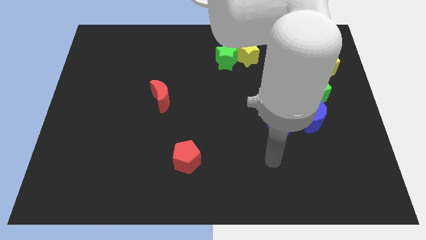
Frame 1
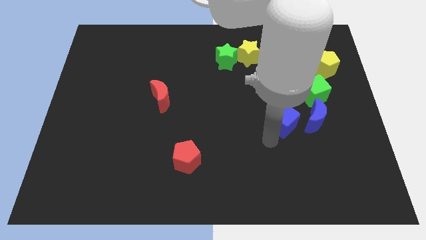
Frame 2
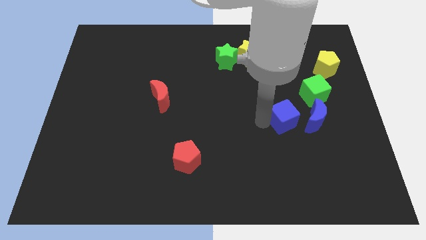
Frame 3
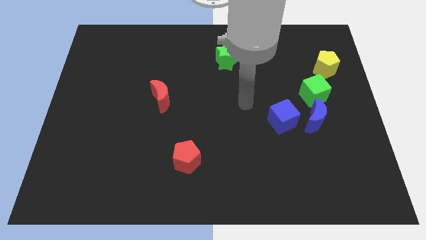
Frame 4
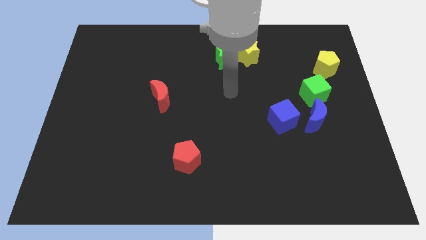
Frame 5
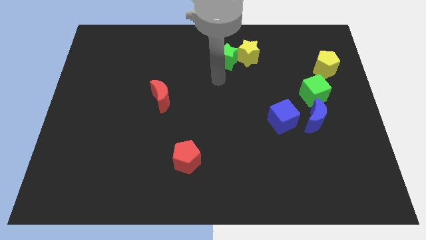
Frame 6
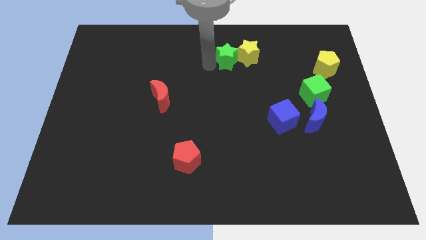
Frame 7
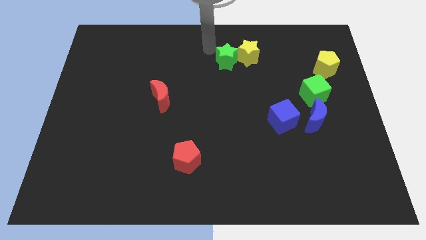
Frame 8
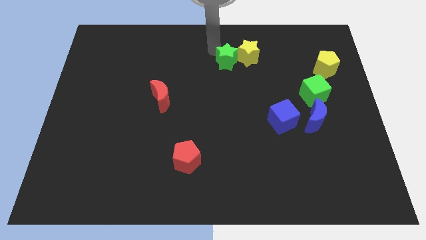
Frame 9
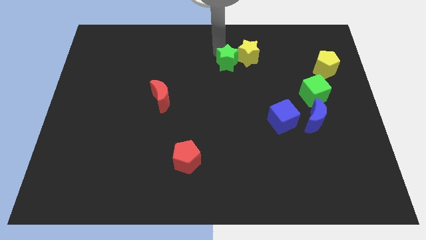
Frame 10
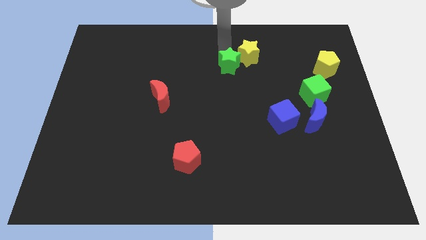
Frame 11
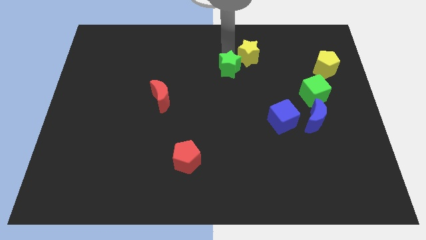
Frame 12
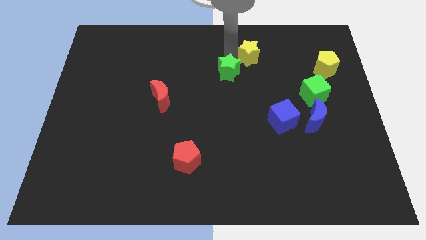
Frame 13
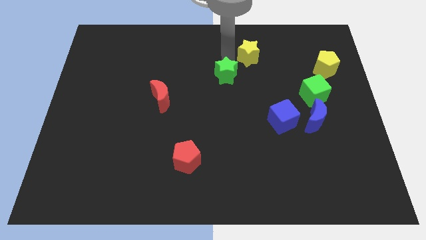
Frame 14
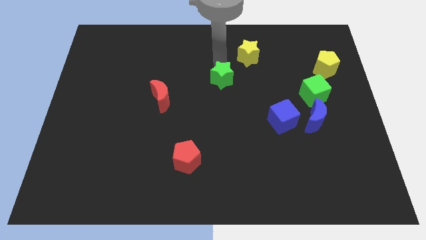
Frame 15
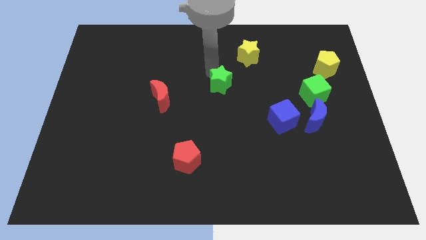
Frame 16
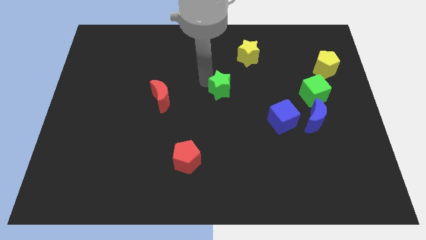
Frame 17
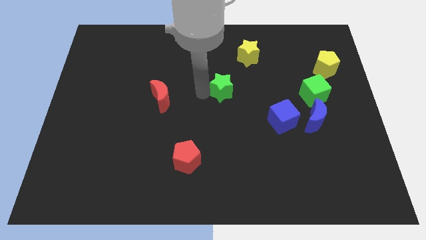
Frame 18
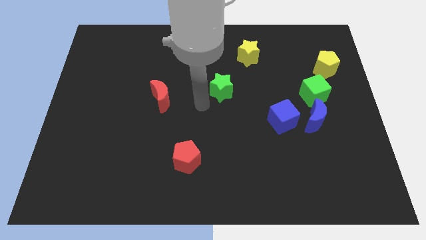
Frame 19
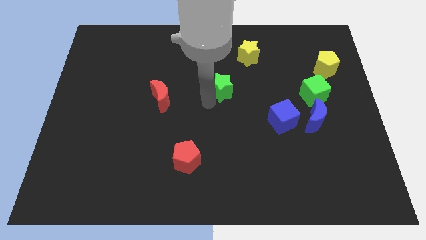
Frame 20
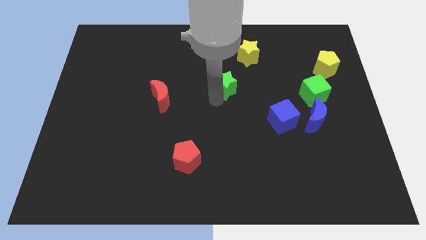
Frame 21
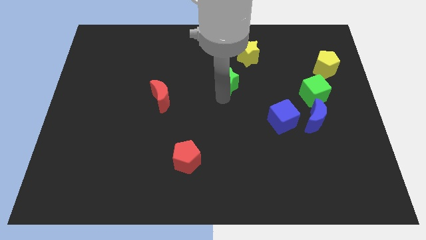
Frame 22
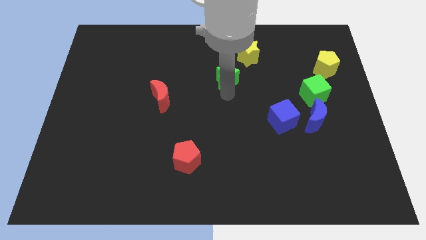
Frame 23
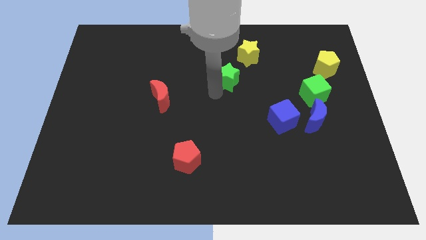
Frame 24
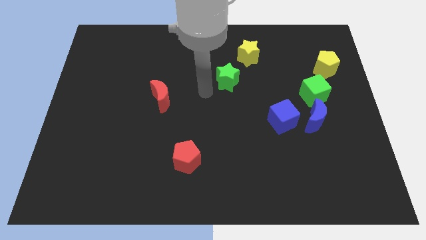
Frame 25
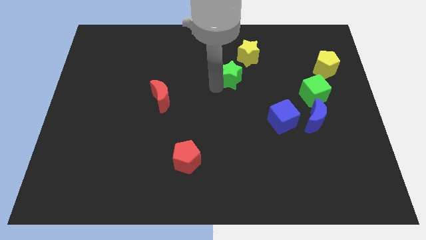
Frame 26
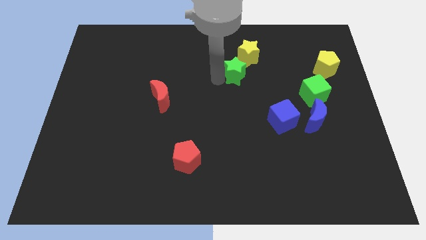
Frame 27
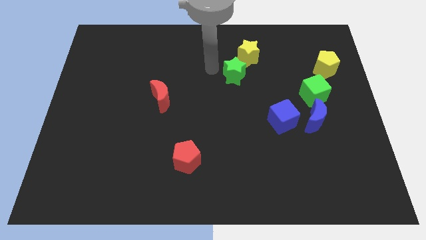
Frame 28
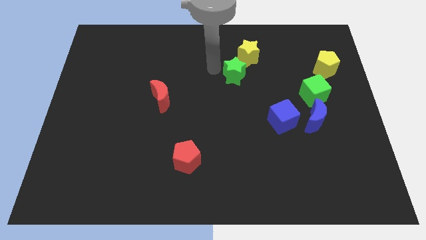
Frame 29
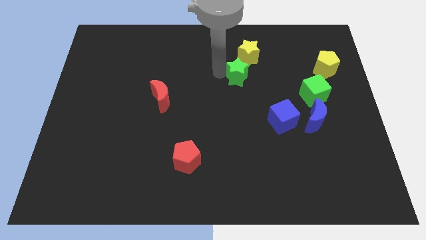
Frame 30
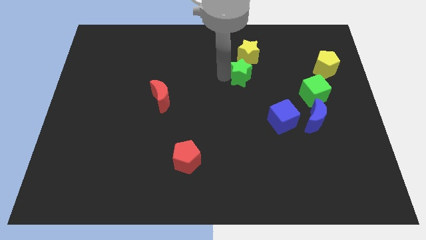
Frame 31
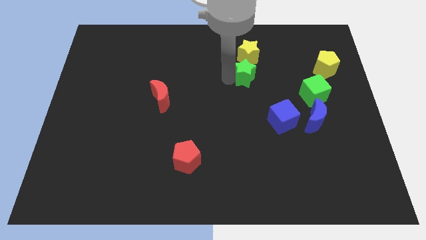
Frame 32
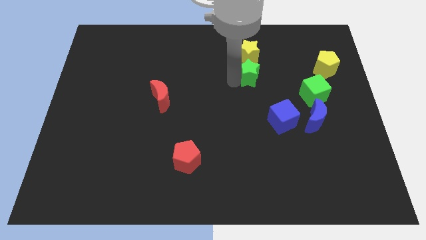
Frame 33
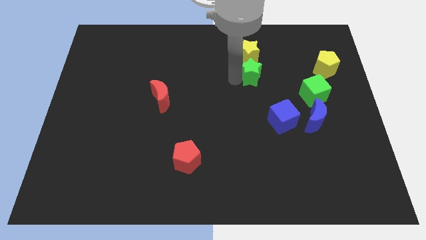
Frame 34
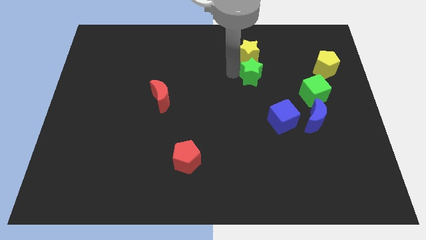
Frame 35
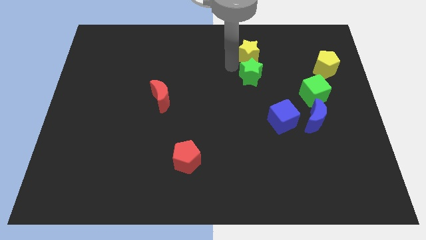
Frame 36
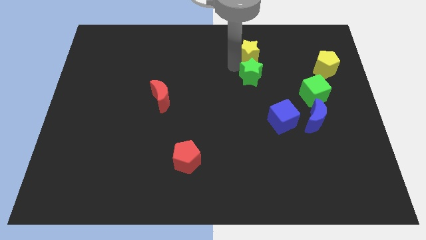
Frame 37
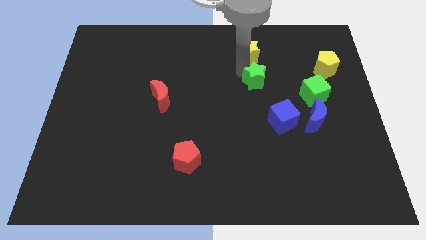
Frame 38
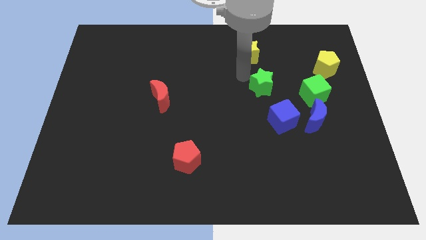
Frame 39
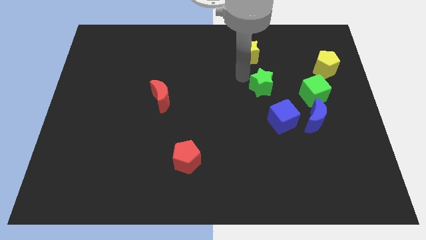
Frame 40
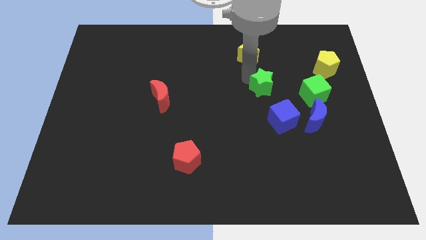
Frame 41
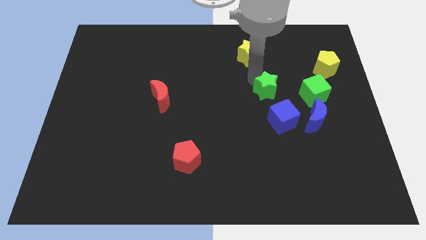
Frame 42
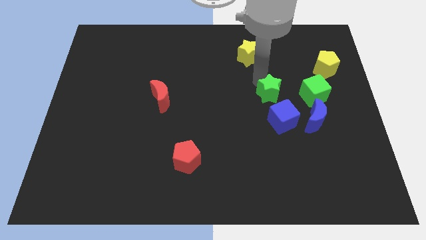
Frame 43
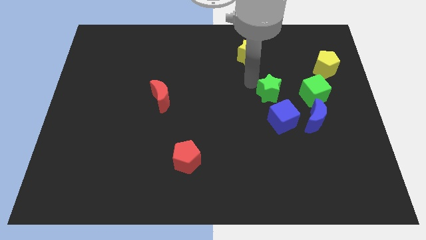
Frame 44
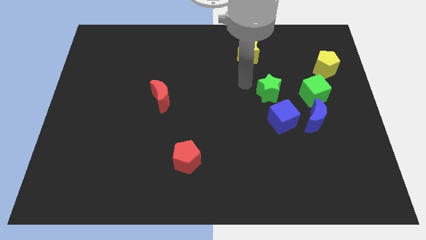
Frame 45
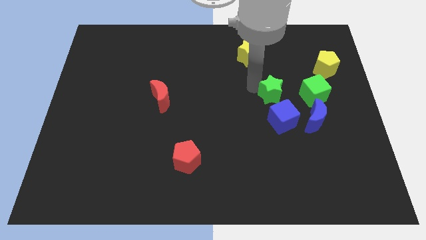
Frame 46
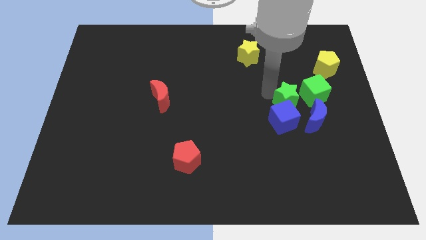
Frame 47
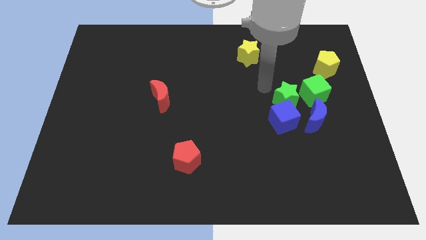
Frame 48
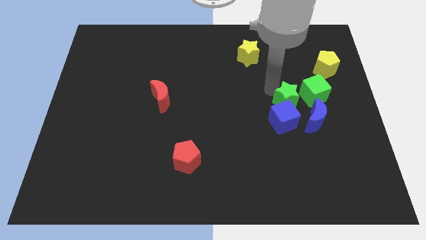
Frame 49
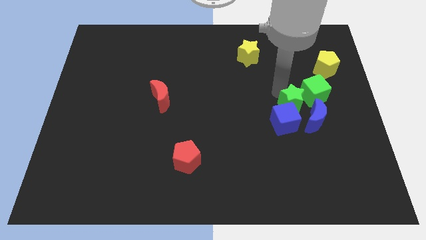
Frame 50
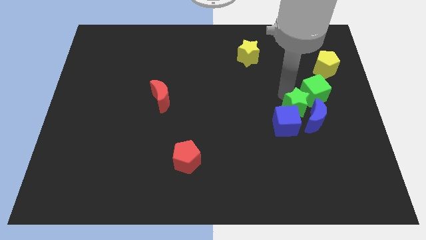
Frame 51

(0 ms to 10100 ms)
move the green star to the blue moon

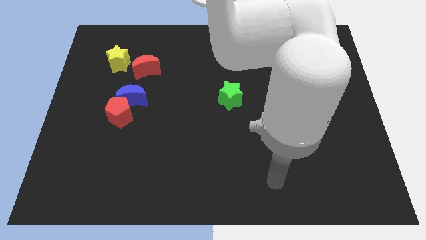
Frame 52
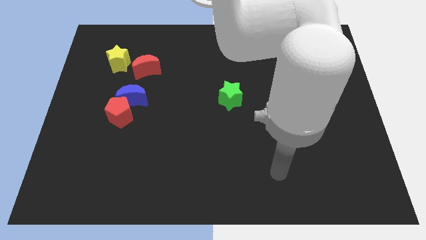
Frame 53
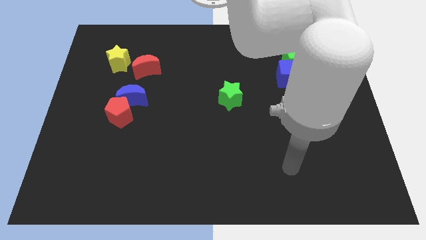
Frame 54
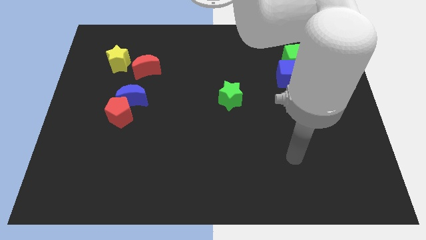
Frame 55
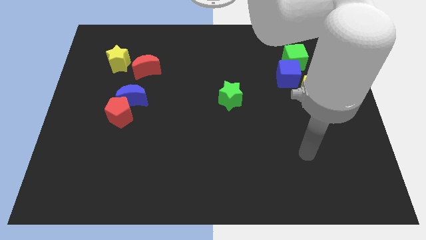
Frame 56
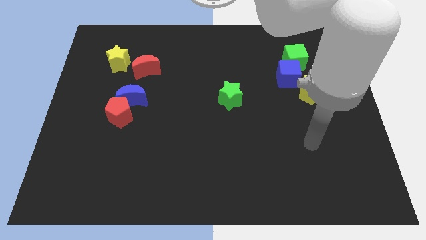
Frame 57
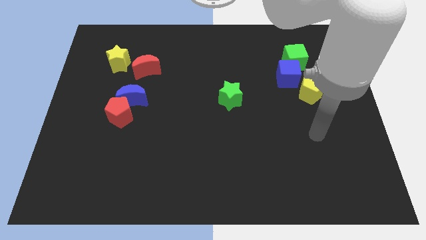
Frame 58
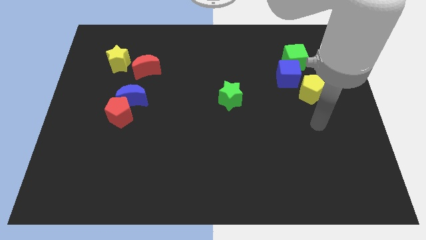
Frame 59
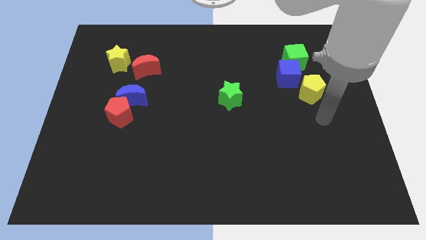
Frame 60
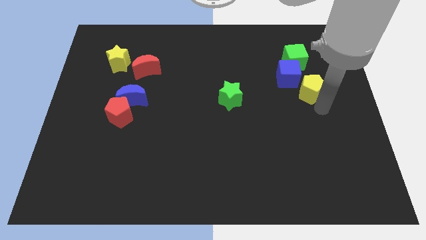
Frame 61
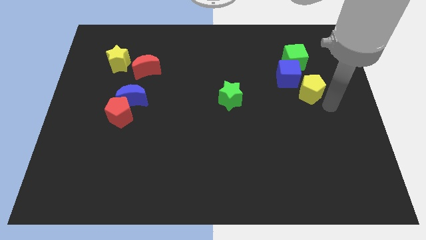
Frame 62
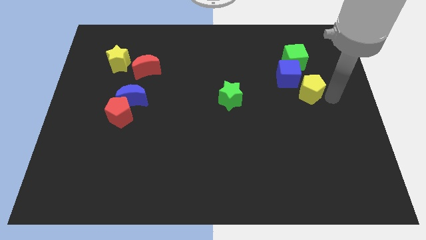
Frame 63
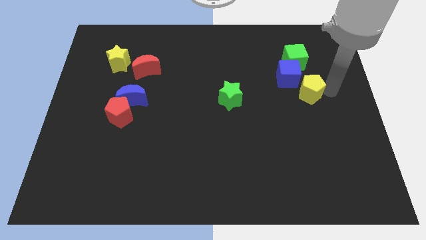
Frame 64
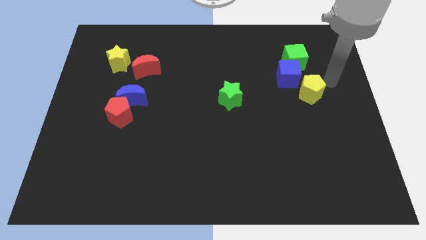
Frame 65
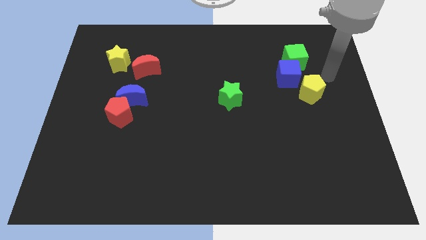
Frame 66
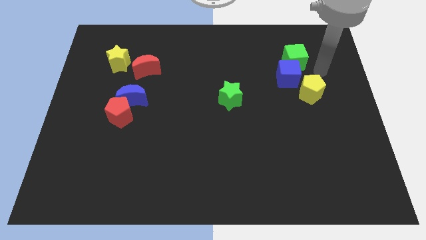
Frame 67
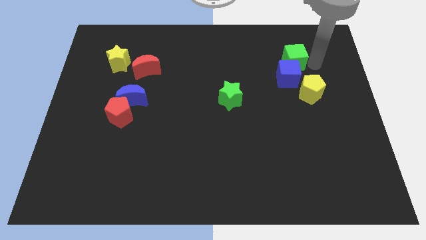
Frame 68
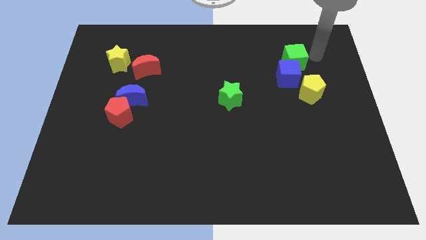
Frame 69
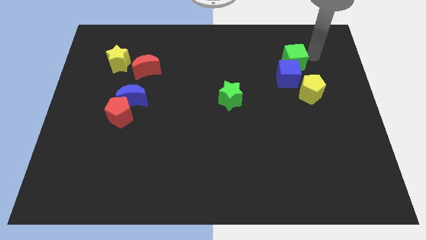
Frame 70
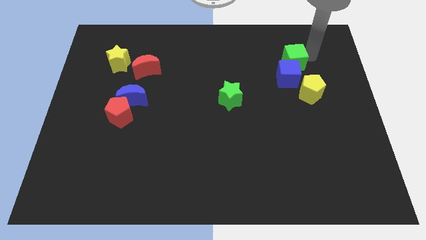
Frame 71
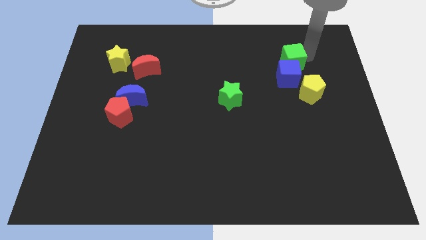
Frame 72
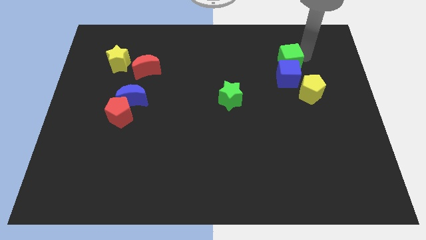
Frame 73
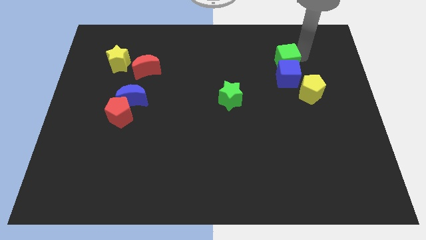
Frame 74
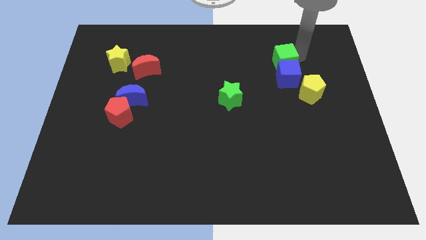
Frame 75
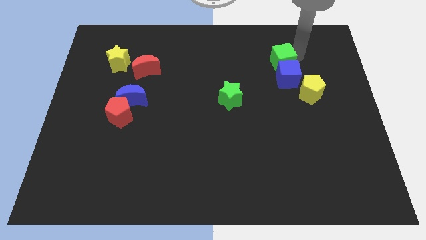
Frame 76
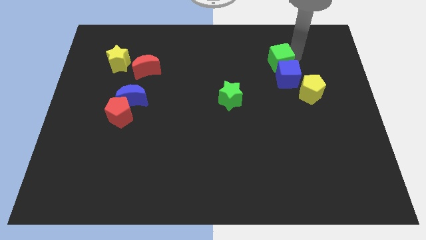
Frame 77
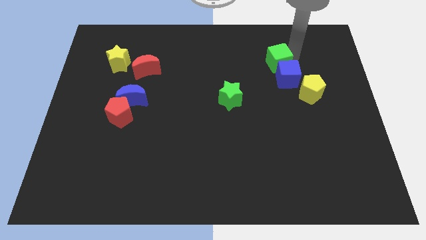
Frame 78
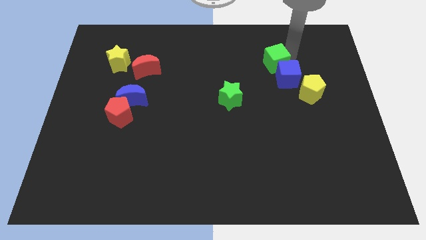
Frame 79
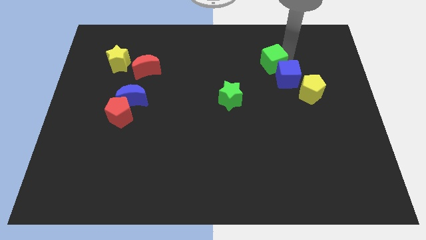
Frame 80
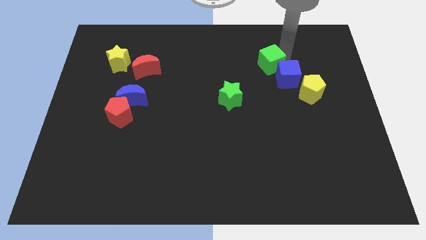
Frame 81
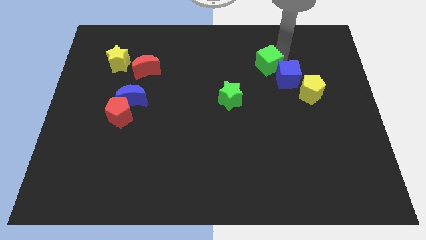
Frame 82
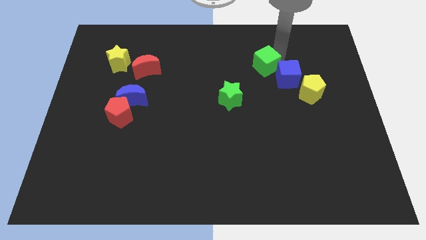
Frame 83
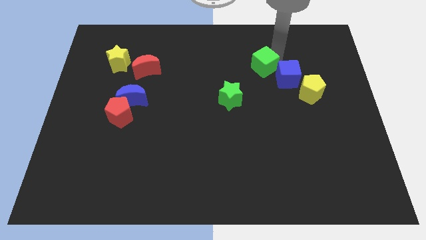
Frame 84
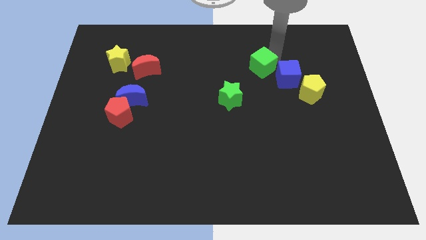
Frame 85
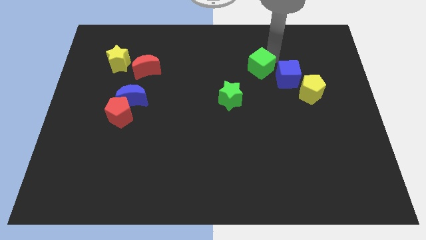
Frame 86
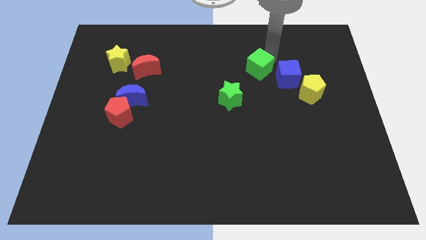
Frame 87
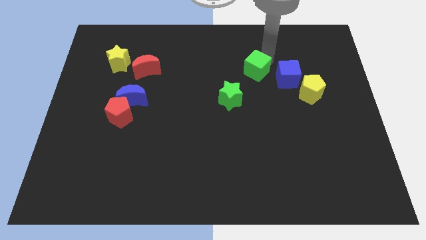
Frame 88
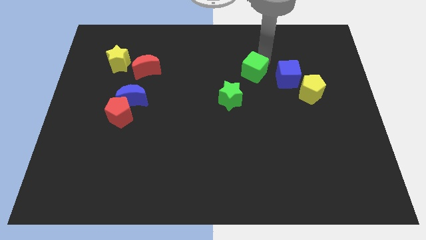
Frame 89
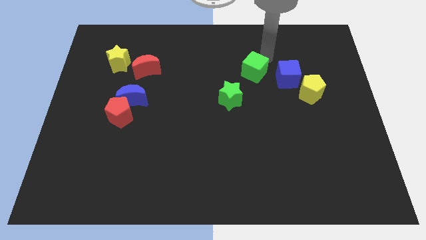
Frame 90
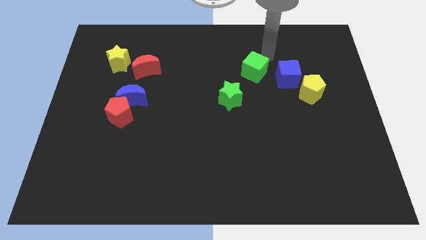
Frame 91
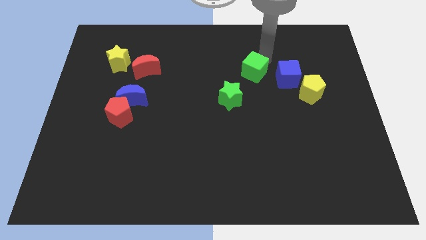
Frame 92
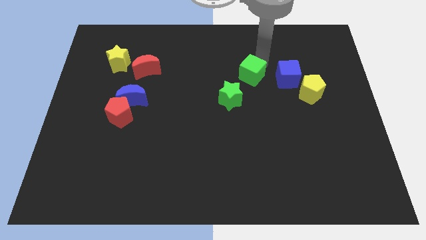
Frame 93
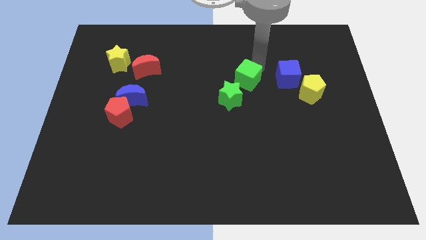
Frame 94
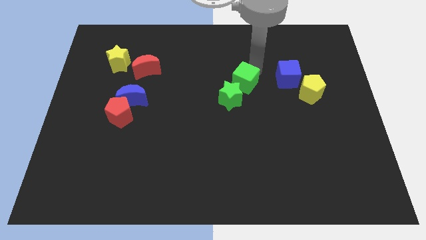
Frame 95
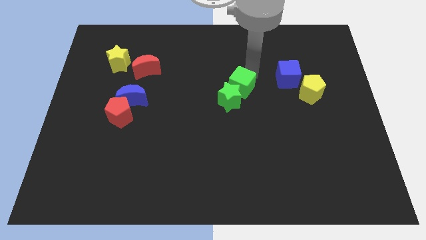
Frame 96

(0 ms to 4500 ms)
push the green cube next to the green star
